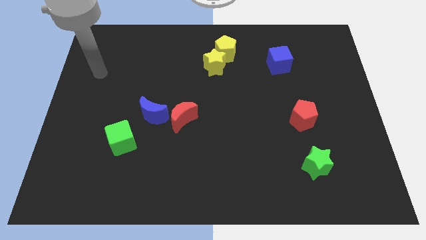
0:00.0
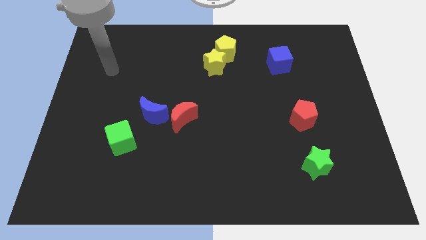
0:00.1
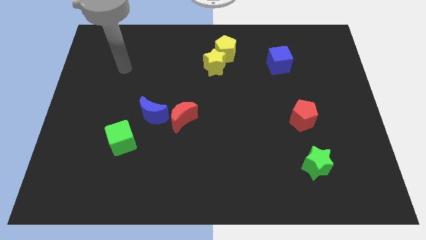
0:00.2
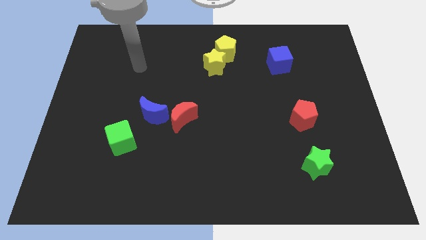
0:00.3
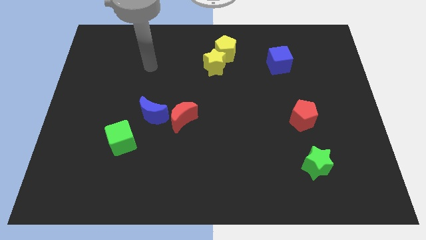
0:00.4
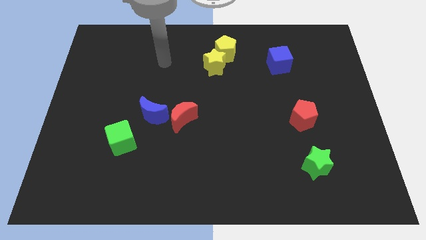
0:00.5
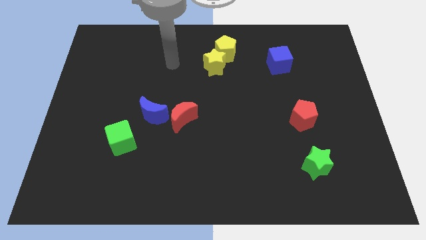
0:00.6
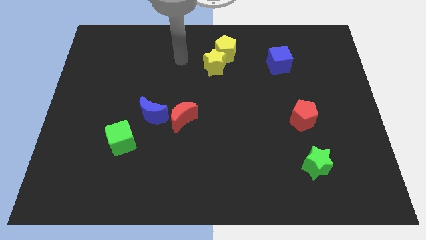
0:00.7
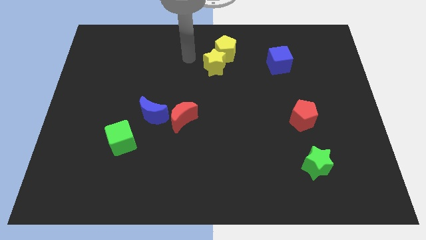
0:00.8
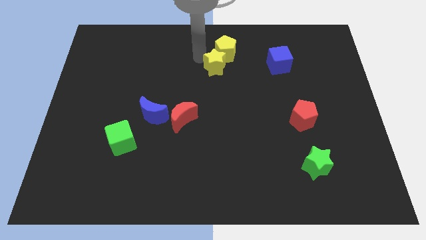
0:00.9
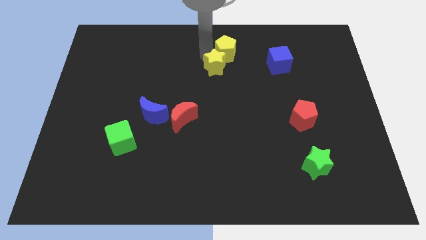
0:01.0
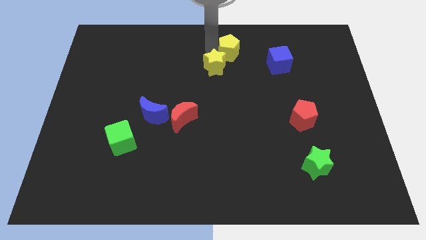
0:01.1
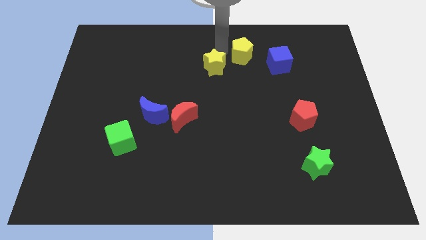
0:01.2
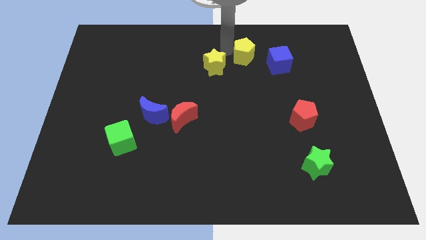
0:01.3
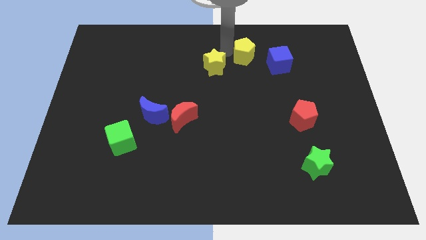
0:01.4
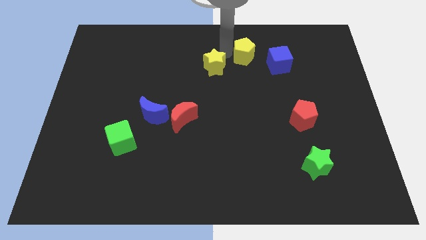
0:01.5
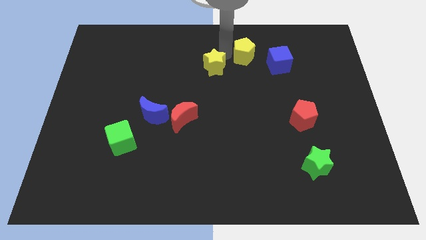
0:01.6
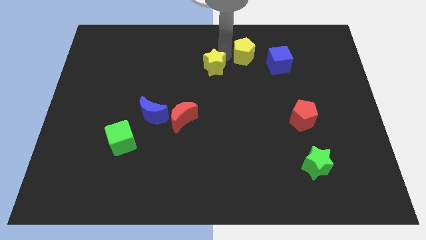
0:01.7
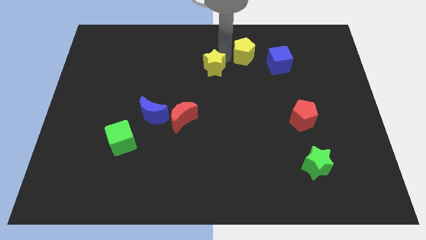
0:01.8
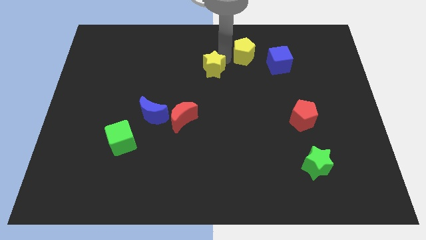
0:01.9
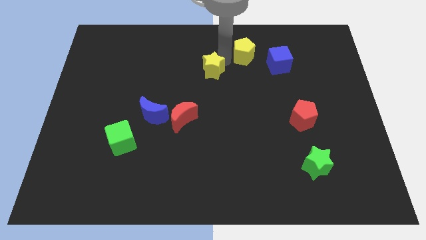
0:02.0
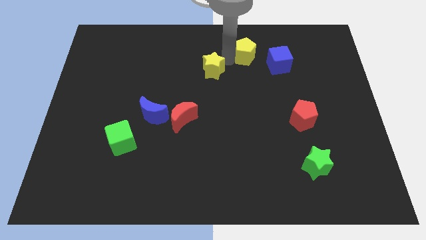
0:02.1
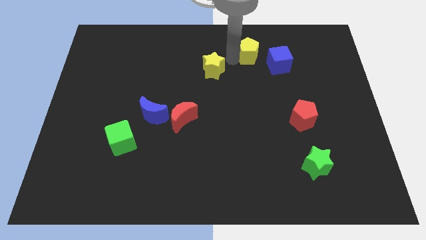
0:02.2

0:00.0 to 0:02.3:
move the yellow star away from the yellow pentagon

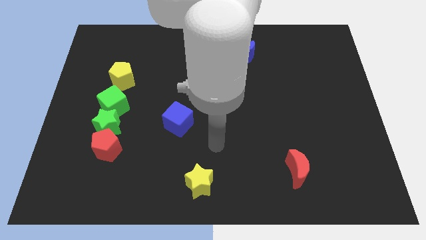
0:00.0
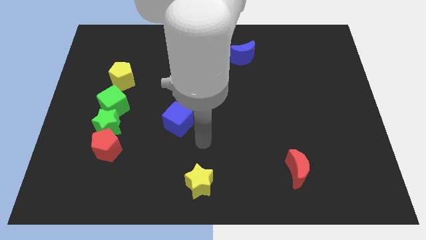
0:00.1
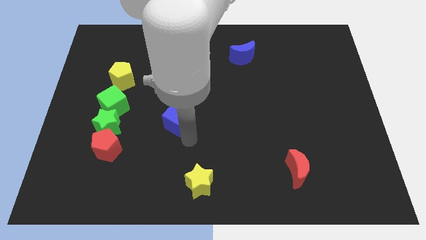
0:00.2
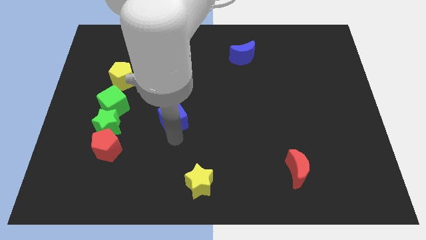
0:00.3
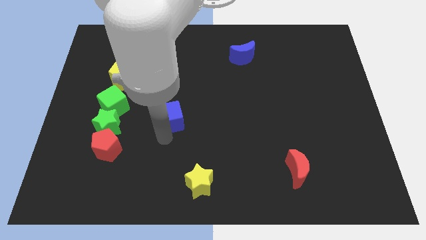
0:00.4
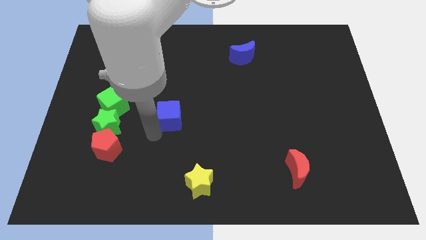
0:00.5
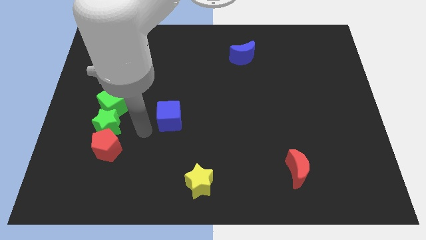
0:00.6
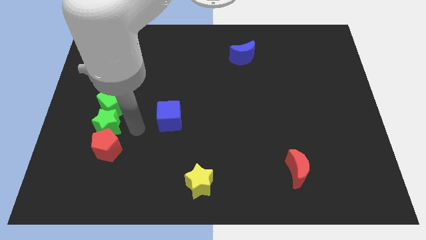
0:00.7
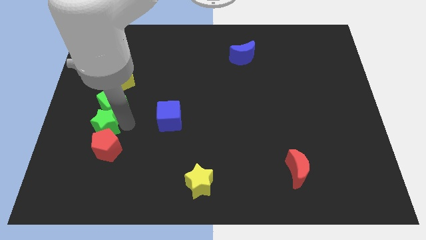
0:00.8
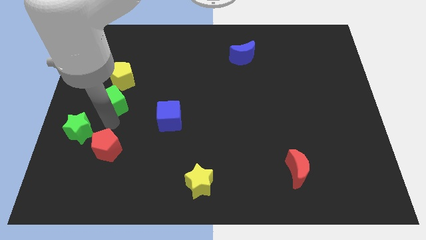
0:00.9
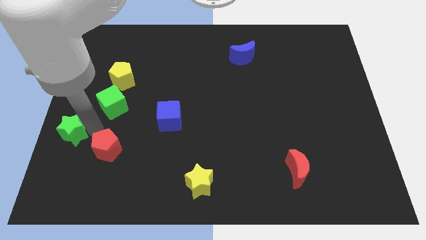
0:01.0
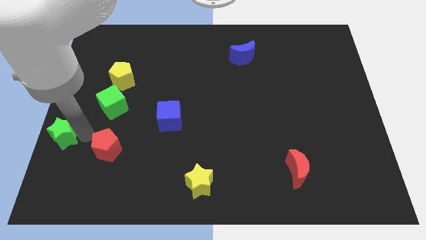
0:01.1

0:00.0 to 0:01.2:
pull the red pentagon apart from the green star

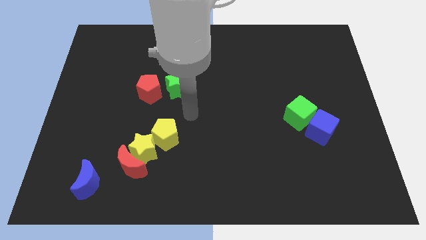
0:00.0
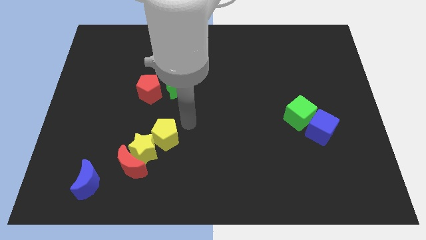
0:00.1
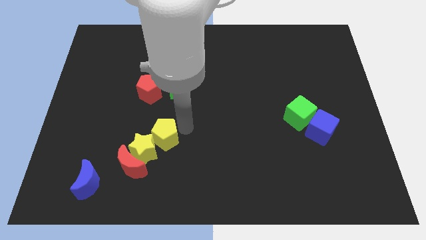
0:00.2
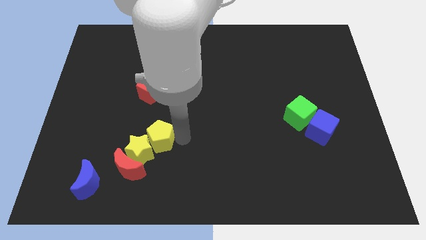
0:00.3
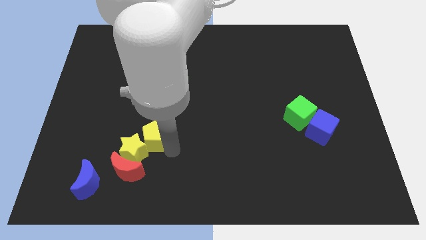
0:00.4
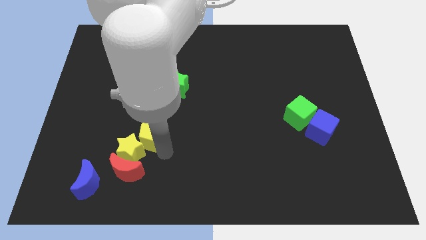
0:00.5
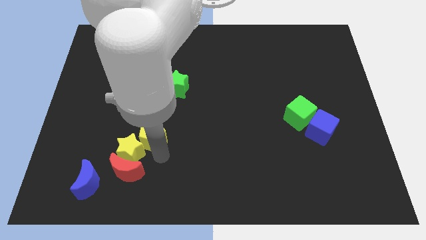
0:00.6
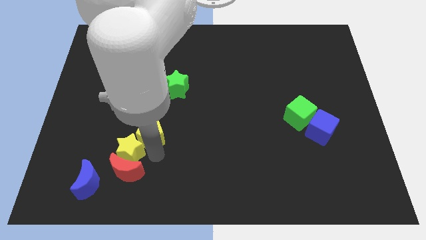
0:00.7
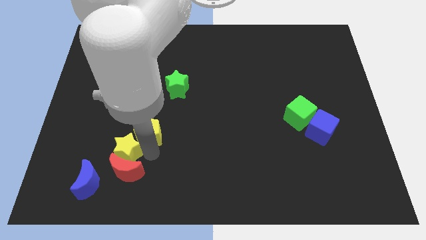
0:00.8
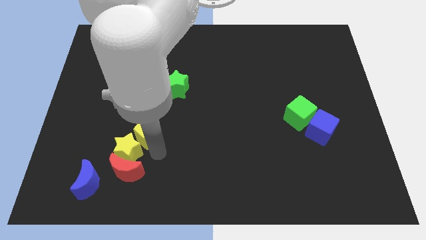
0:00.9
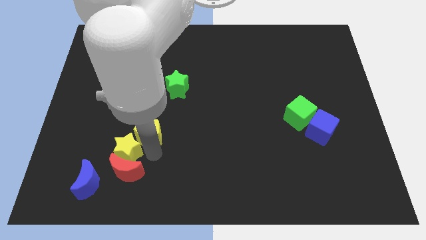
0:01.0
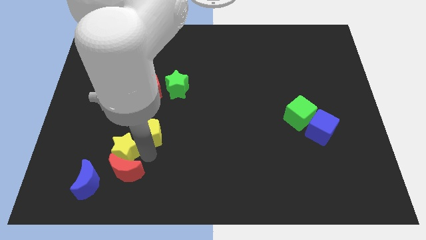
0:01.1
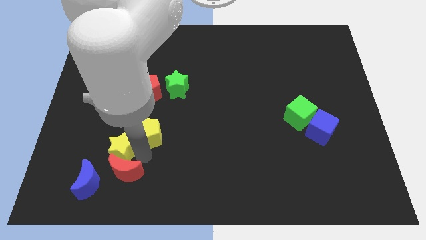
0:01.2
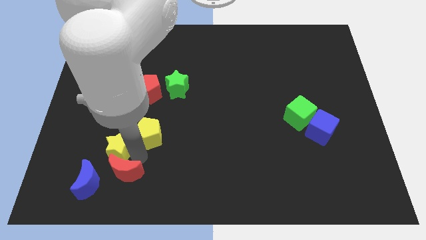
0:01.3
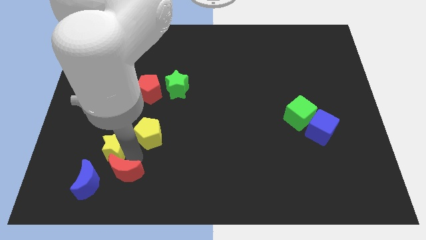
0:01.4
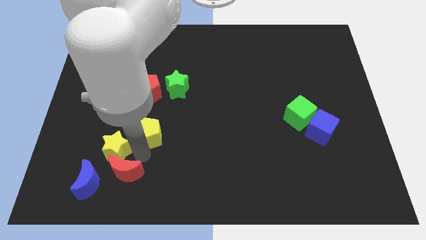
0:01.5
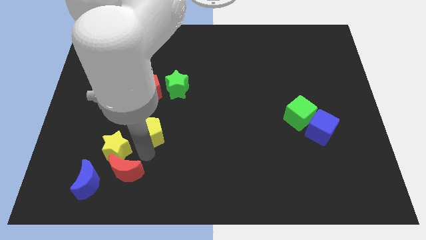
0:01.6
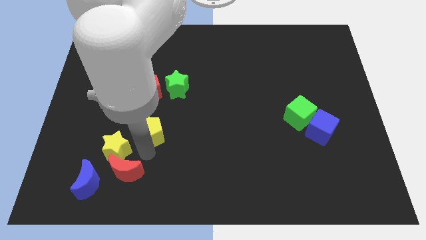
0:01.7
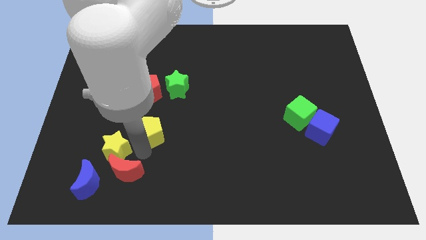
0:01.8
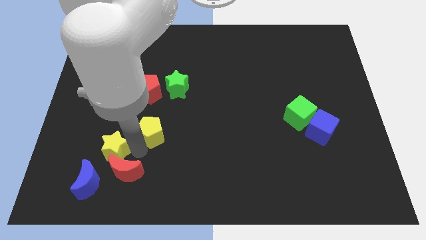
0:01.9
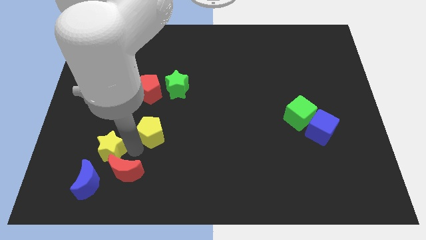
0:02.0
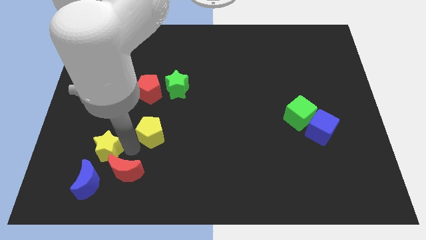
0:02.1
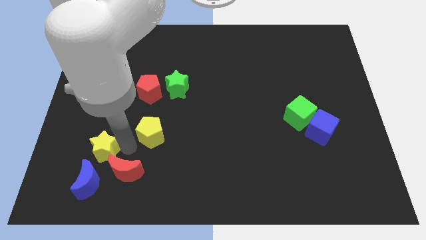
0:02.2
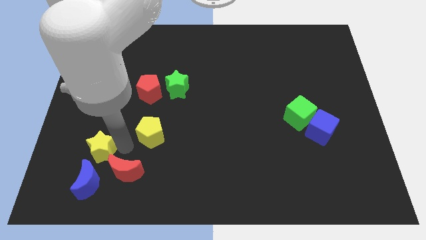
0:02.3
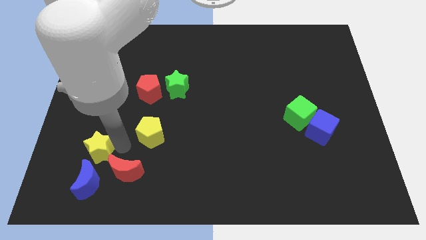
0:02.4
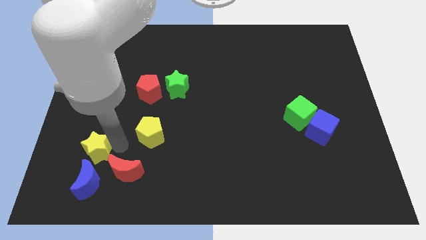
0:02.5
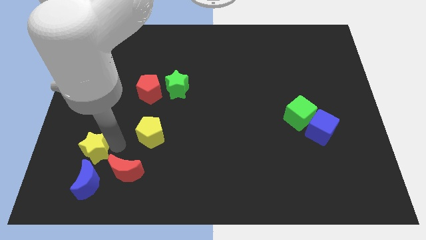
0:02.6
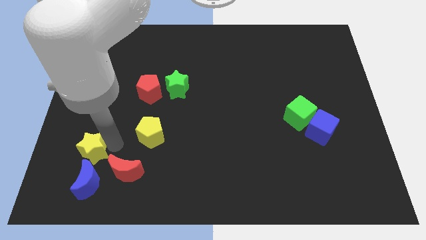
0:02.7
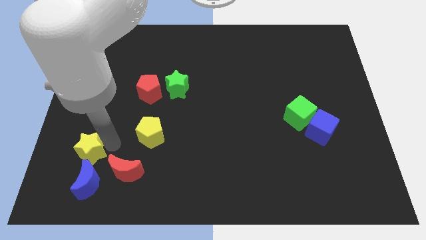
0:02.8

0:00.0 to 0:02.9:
pull the yellow star apart from the red moon and yellow pentagon

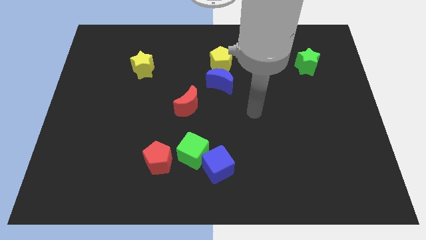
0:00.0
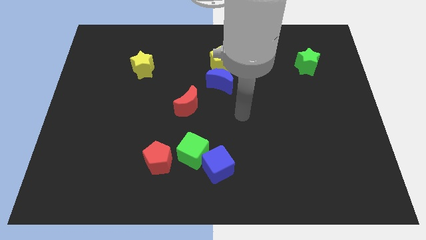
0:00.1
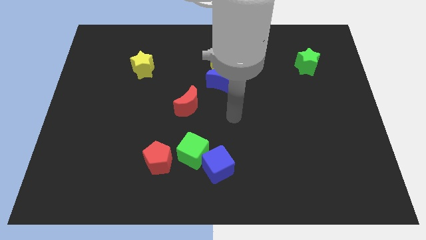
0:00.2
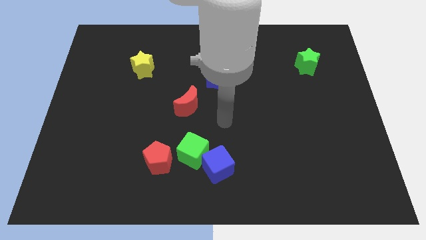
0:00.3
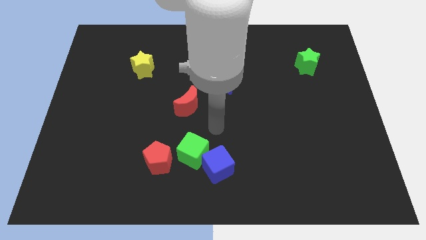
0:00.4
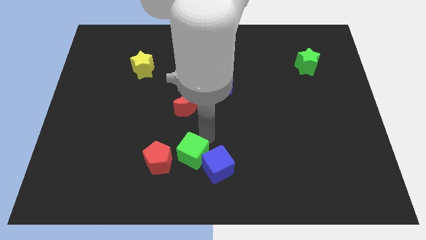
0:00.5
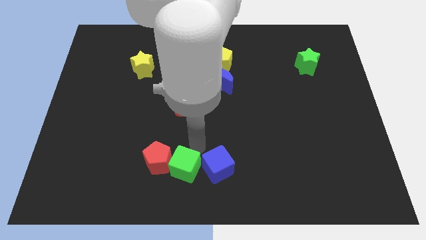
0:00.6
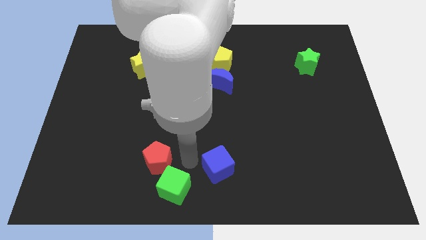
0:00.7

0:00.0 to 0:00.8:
move the blue cube away from the green cube

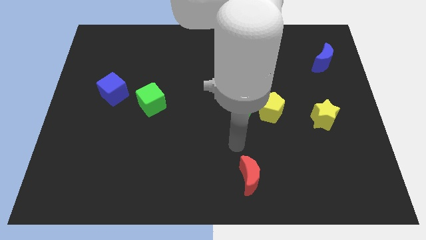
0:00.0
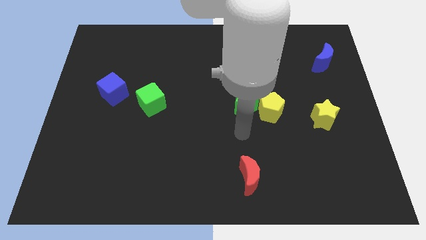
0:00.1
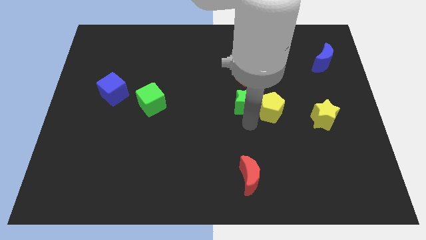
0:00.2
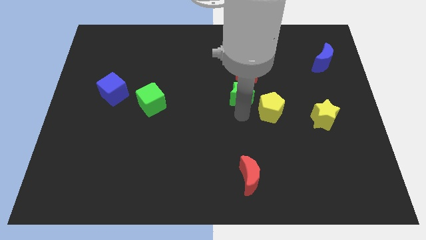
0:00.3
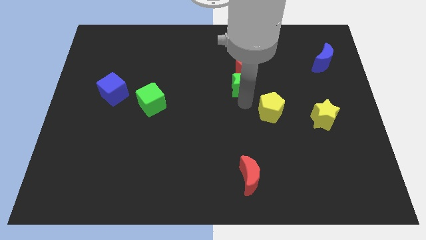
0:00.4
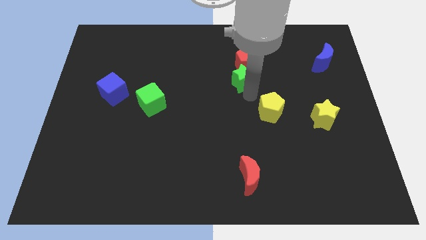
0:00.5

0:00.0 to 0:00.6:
move the yellow pentagon away from the green star

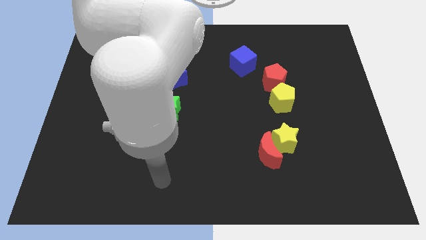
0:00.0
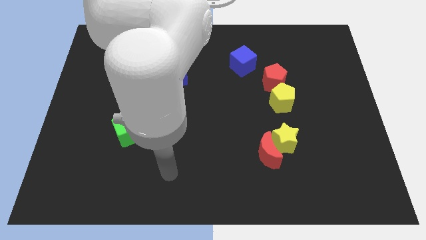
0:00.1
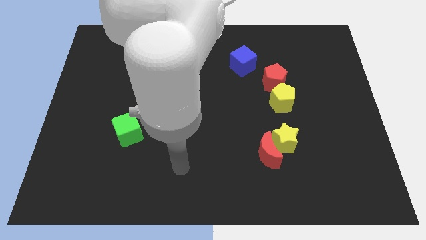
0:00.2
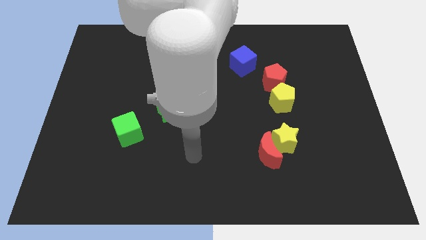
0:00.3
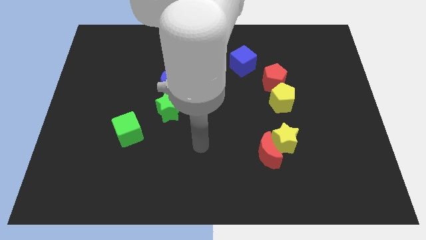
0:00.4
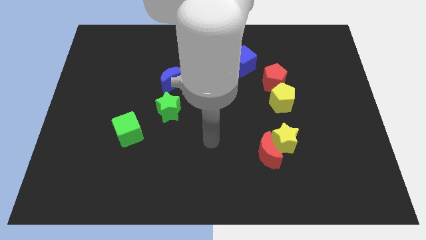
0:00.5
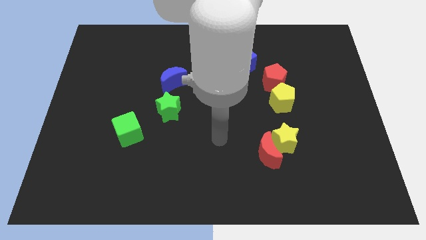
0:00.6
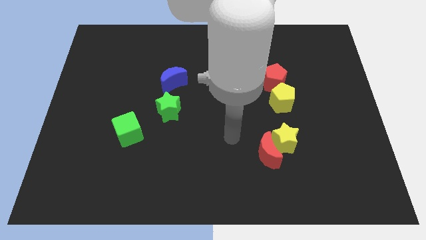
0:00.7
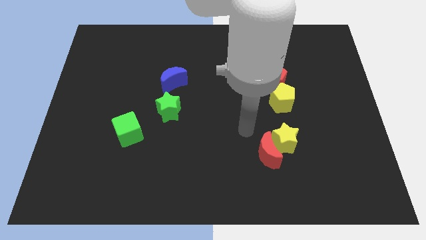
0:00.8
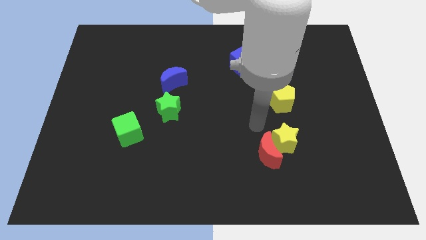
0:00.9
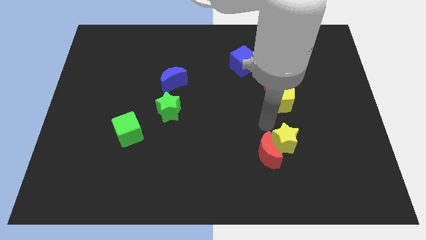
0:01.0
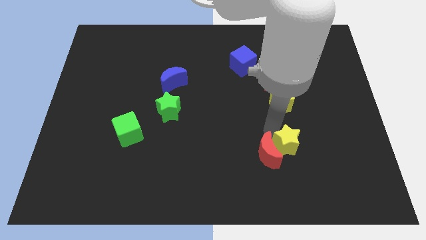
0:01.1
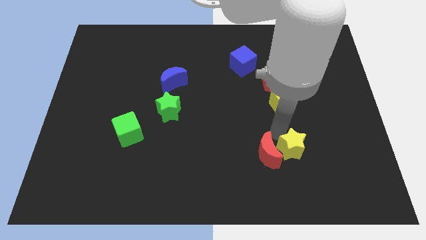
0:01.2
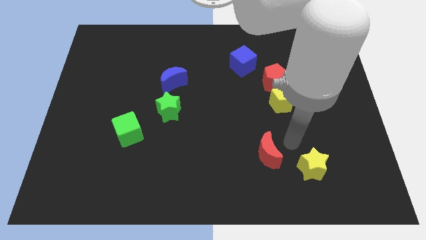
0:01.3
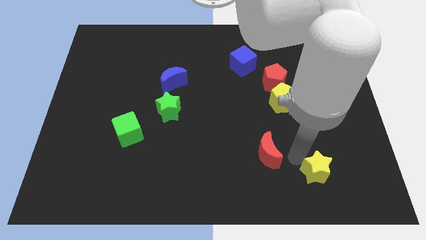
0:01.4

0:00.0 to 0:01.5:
pull the red moon apart from the yellow star
